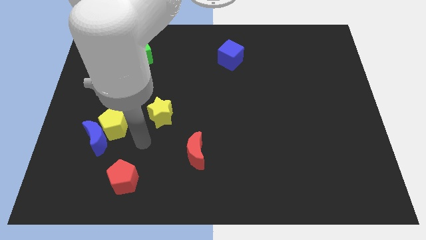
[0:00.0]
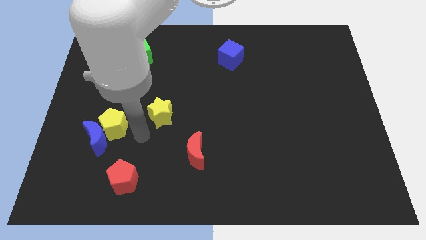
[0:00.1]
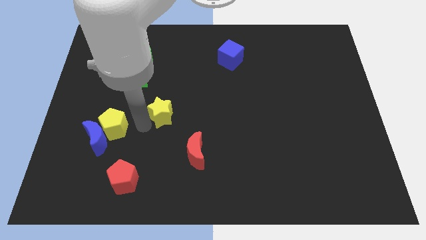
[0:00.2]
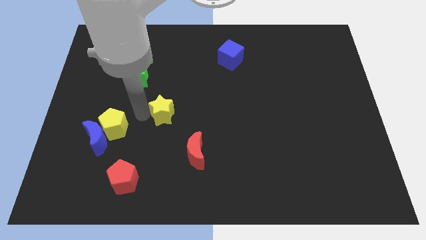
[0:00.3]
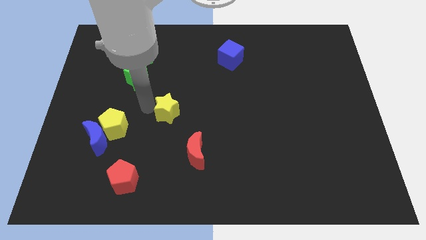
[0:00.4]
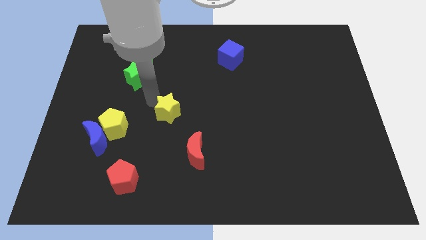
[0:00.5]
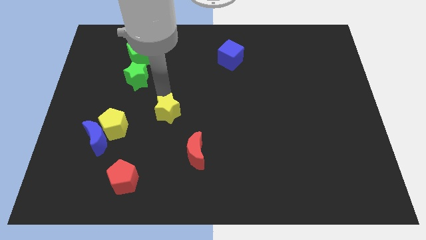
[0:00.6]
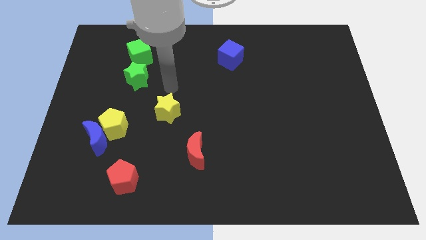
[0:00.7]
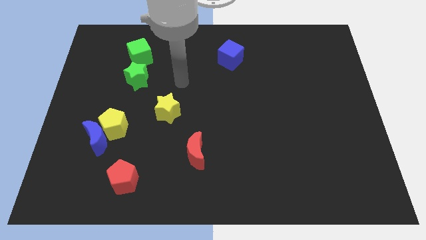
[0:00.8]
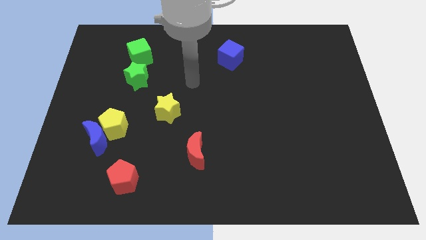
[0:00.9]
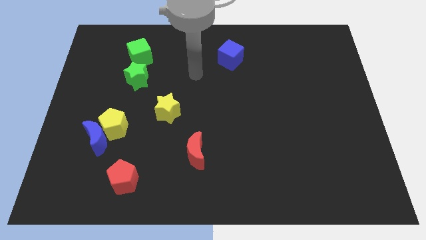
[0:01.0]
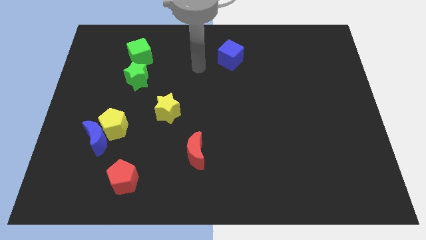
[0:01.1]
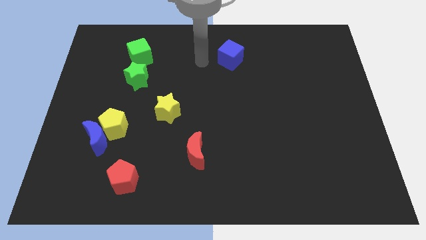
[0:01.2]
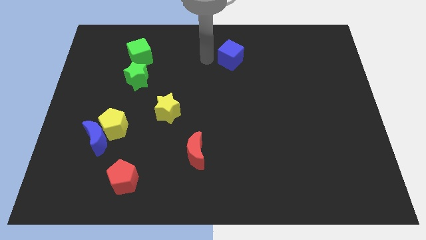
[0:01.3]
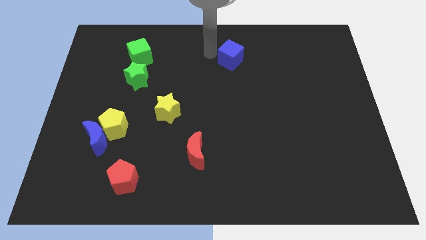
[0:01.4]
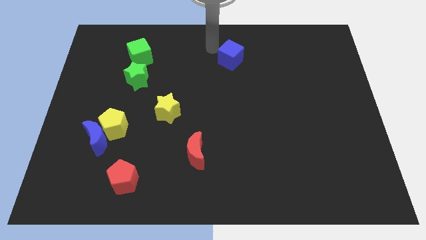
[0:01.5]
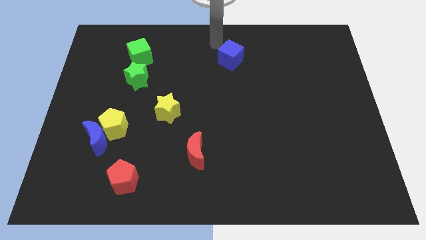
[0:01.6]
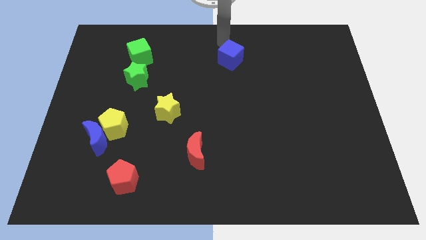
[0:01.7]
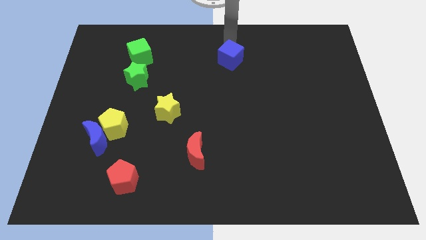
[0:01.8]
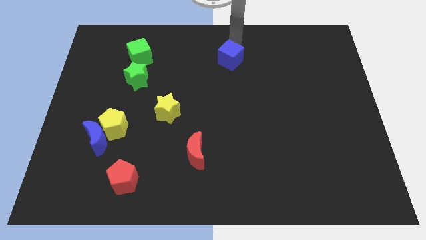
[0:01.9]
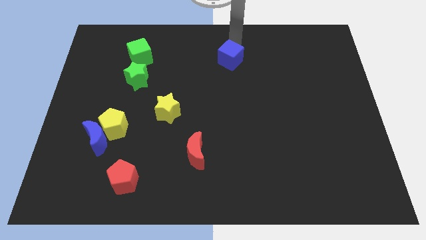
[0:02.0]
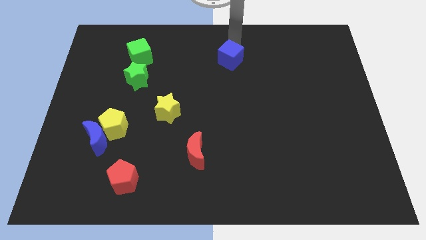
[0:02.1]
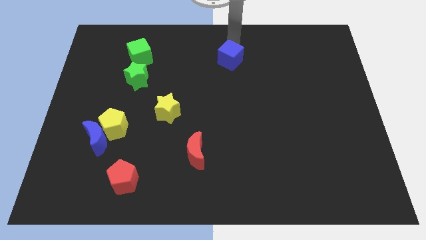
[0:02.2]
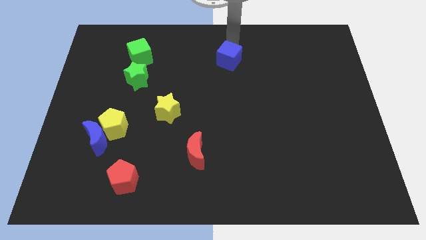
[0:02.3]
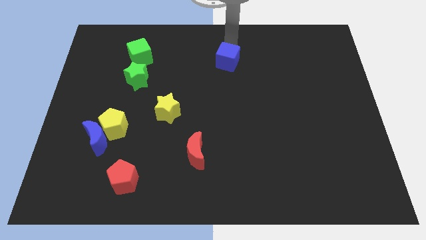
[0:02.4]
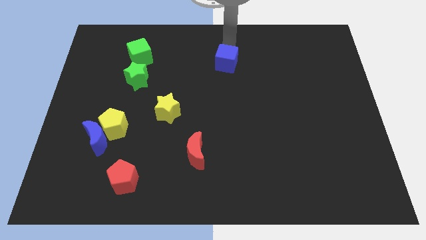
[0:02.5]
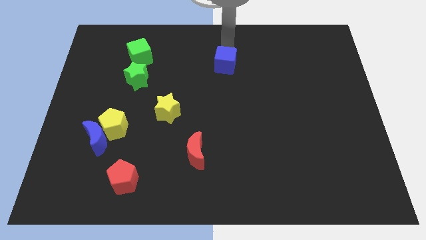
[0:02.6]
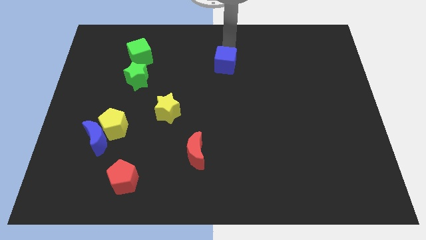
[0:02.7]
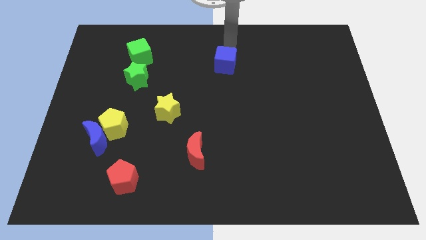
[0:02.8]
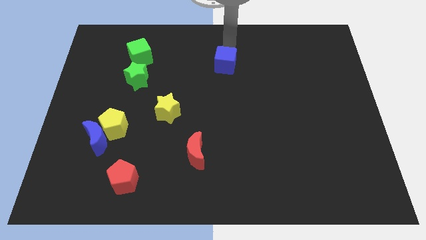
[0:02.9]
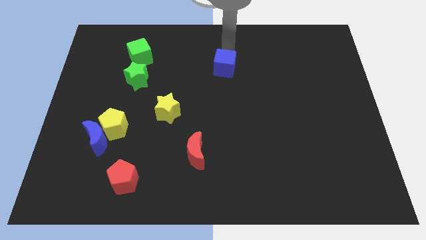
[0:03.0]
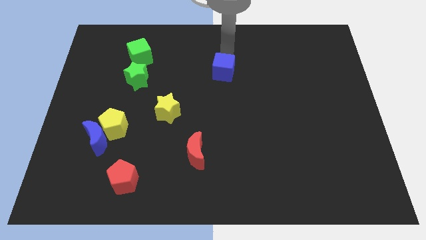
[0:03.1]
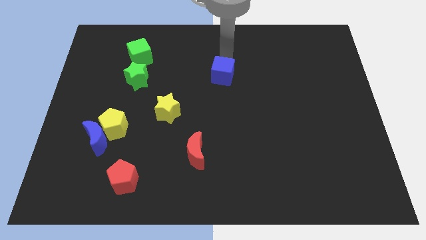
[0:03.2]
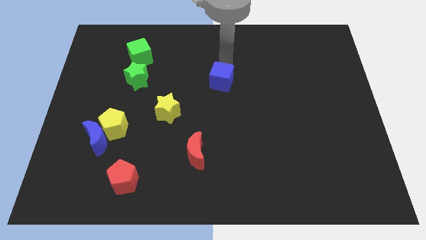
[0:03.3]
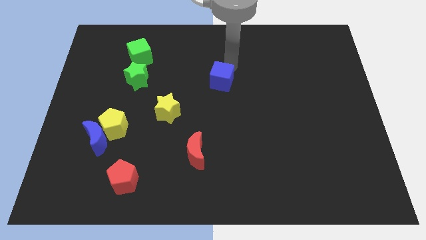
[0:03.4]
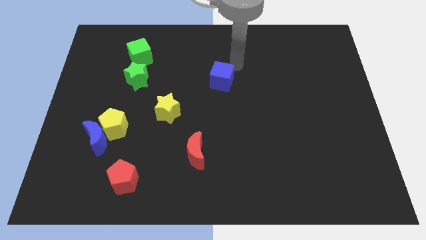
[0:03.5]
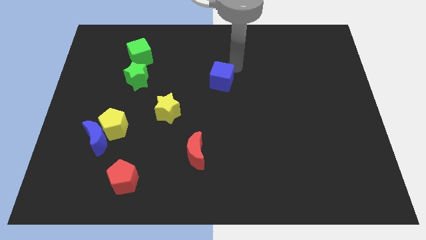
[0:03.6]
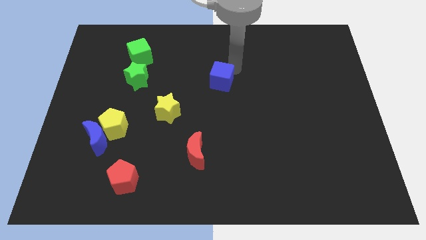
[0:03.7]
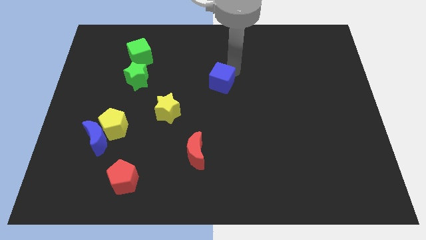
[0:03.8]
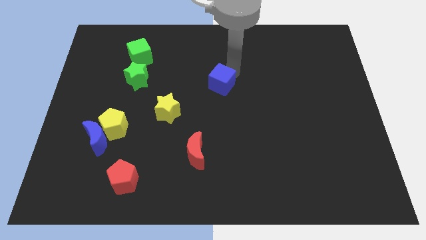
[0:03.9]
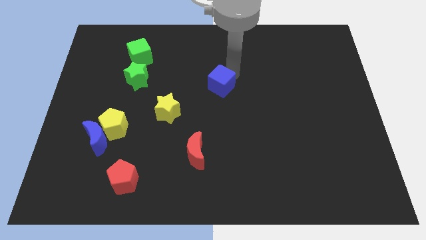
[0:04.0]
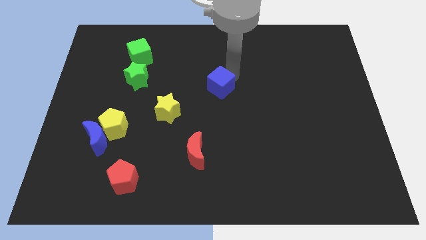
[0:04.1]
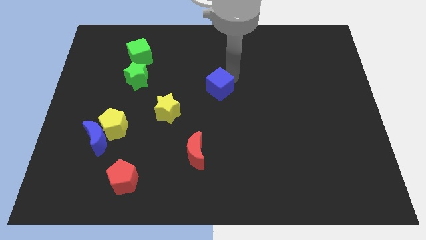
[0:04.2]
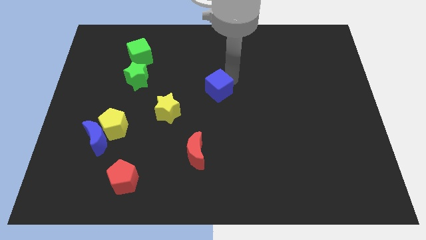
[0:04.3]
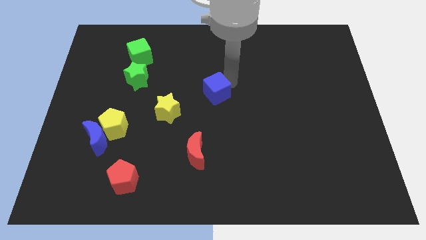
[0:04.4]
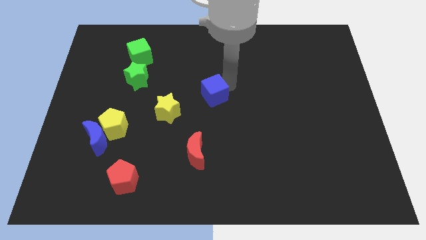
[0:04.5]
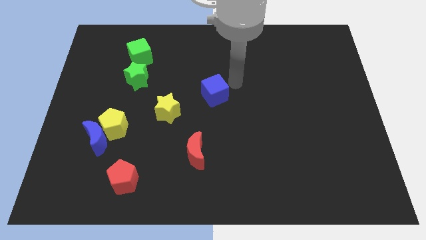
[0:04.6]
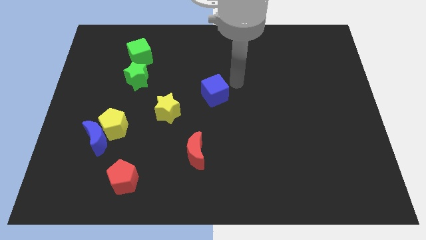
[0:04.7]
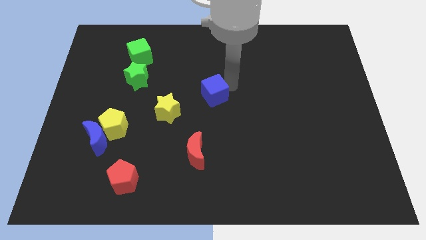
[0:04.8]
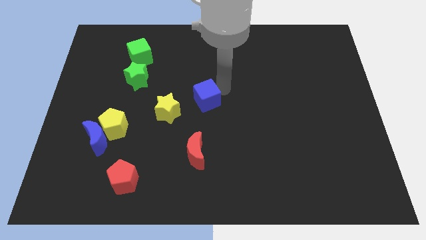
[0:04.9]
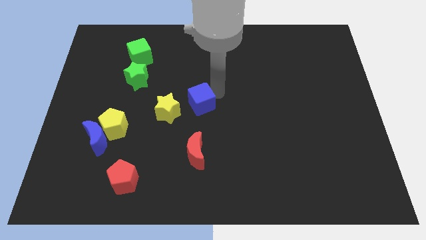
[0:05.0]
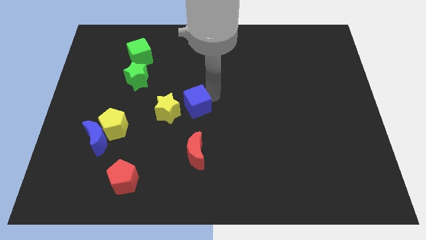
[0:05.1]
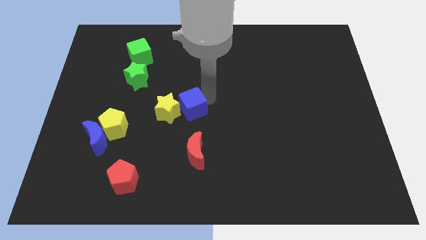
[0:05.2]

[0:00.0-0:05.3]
put the blue cube close to the yellow star

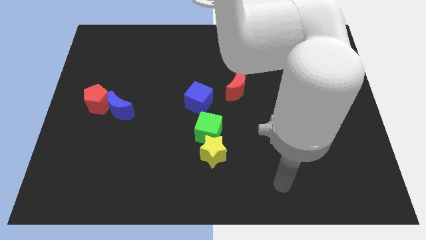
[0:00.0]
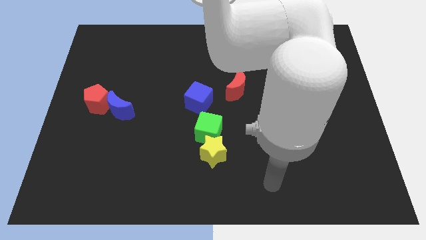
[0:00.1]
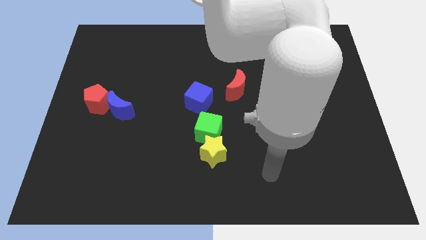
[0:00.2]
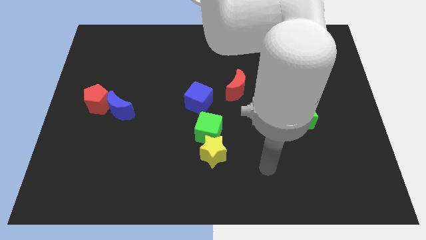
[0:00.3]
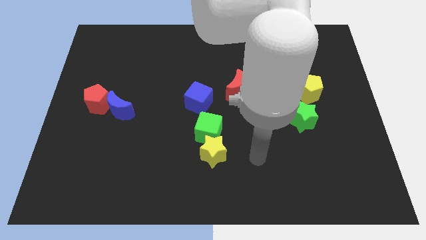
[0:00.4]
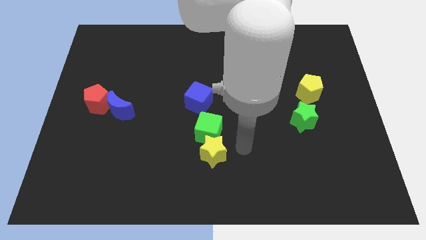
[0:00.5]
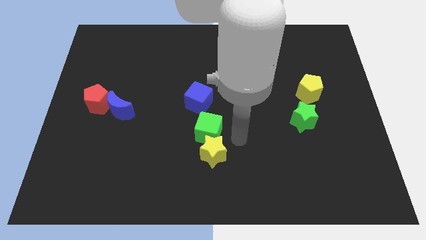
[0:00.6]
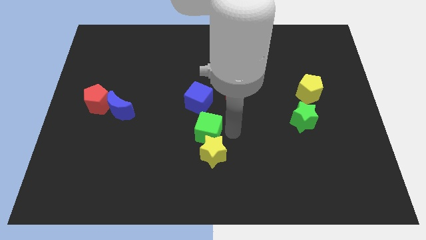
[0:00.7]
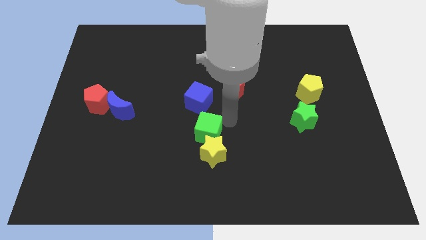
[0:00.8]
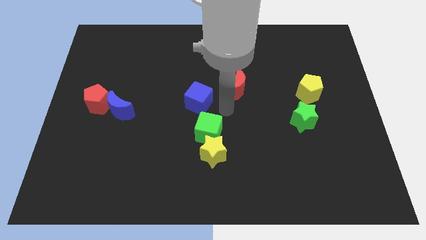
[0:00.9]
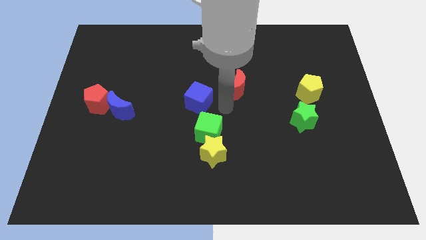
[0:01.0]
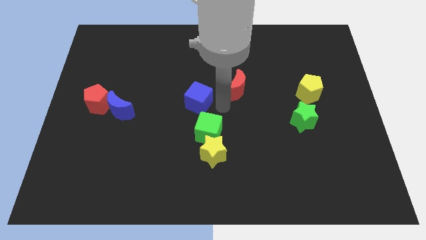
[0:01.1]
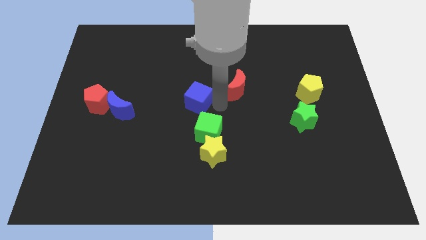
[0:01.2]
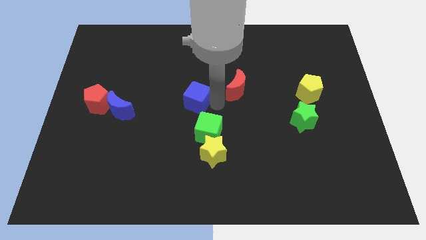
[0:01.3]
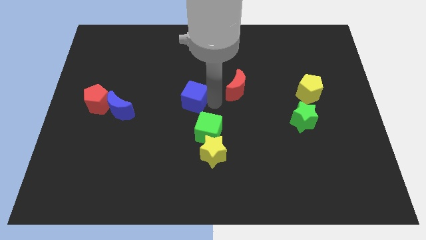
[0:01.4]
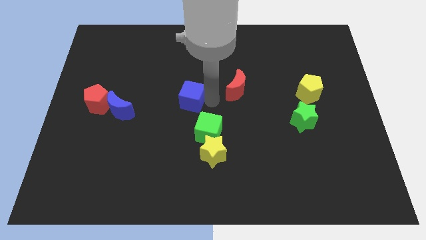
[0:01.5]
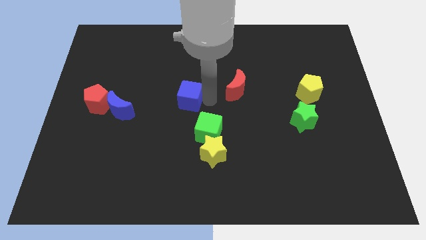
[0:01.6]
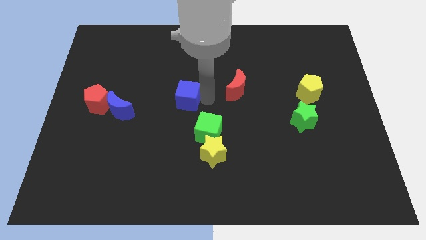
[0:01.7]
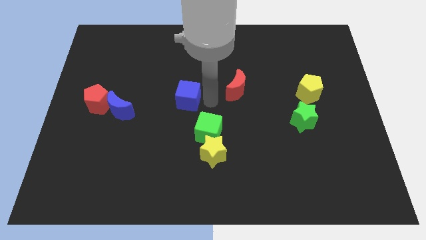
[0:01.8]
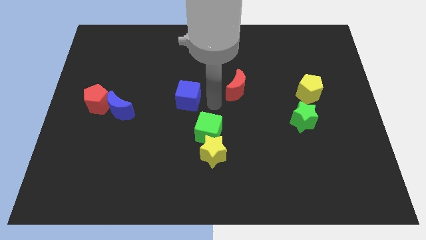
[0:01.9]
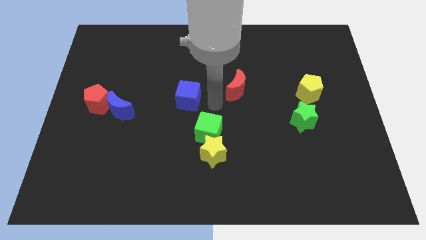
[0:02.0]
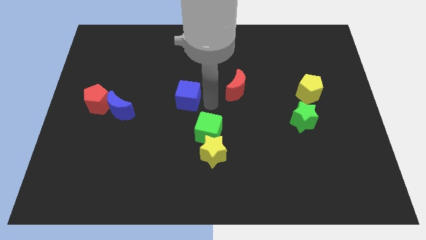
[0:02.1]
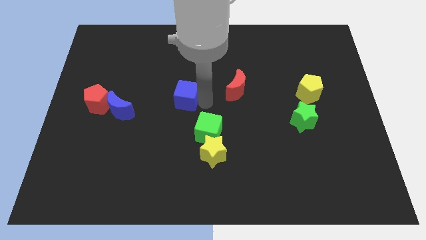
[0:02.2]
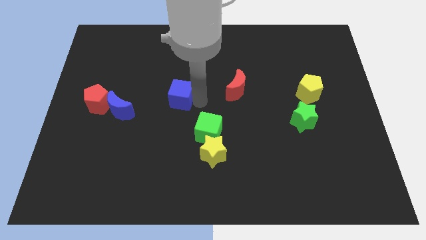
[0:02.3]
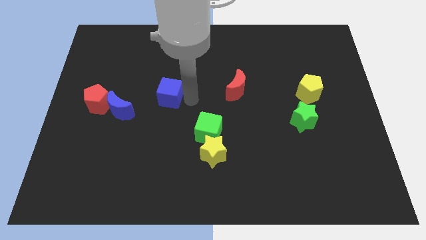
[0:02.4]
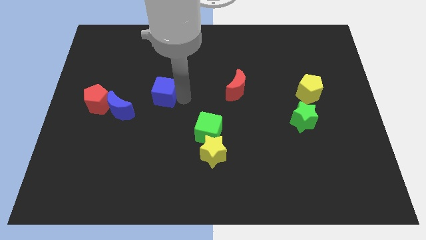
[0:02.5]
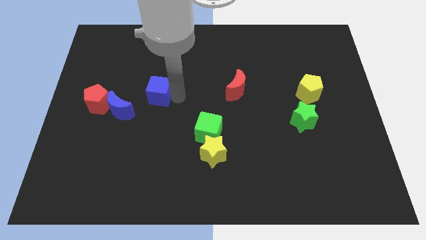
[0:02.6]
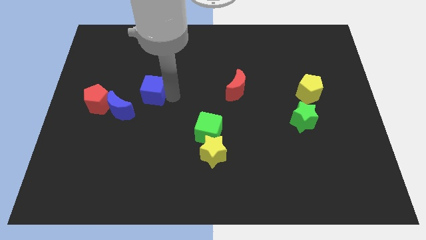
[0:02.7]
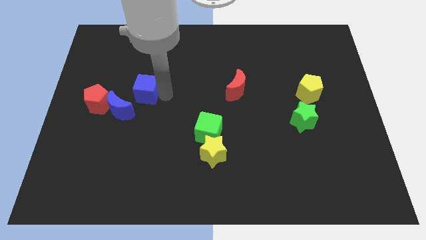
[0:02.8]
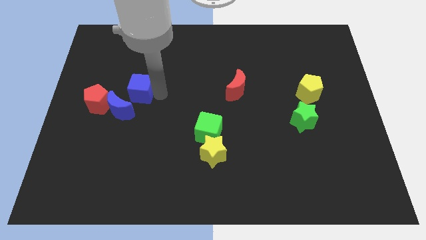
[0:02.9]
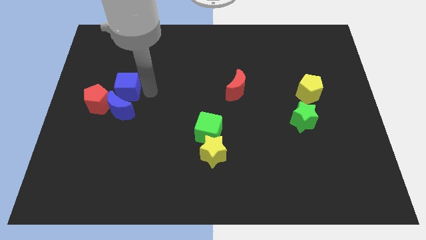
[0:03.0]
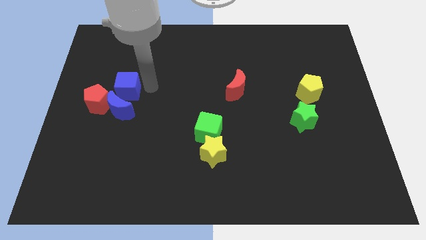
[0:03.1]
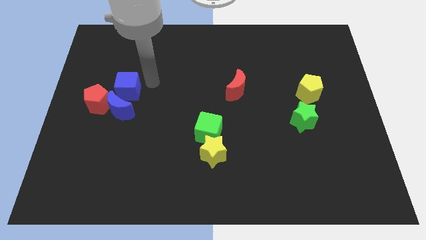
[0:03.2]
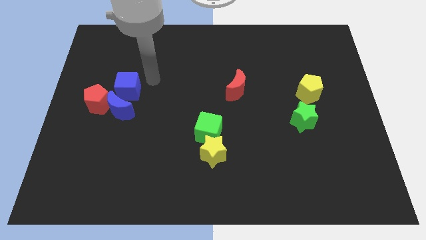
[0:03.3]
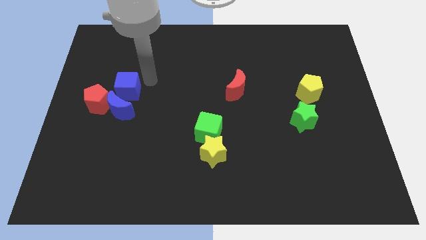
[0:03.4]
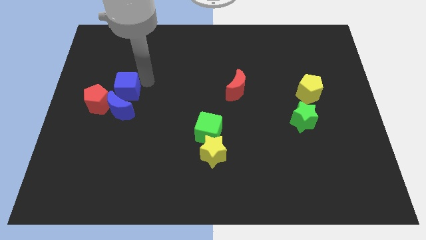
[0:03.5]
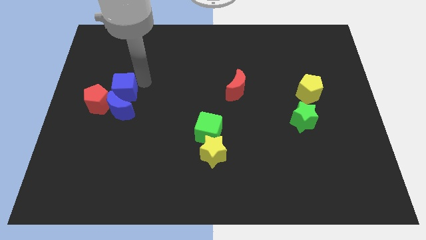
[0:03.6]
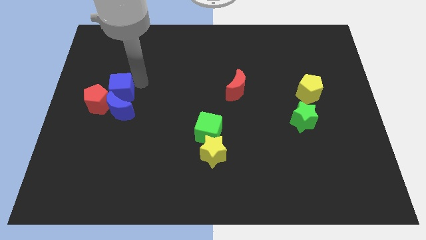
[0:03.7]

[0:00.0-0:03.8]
slide the blue cube to the red pentagon
